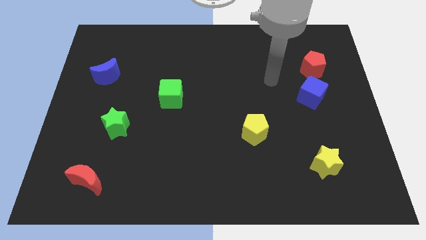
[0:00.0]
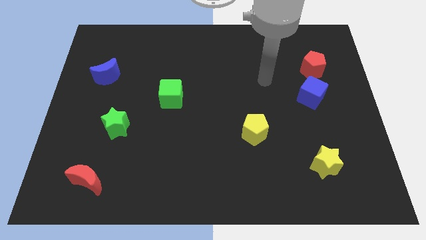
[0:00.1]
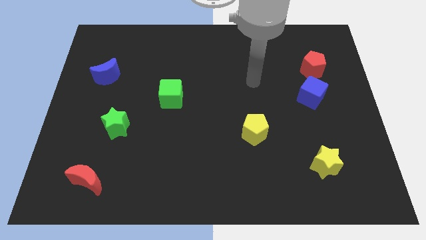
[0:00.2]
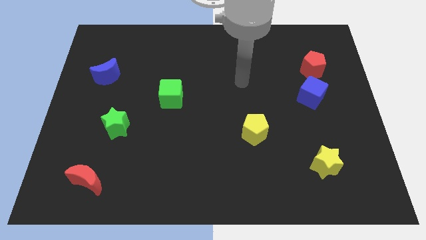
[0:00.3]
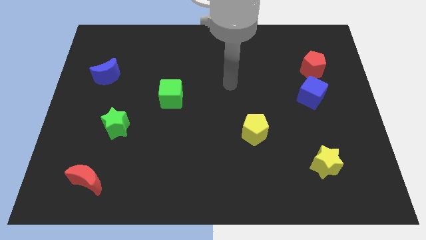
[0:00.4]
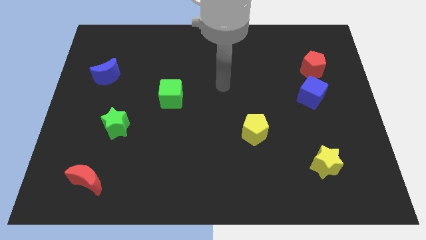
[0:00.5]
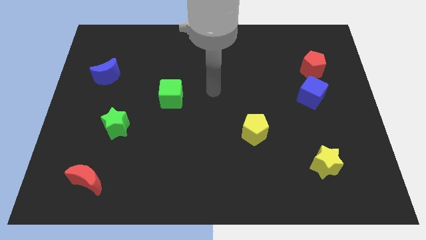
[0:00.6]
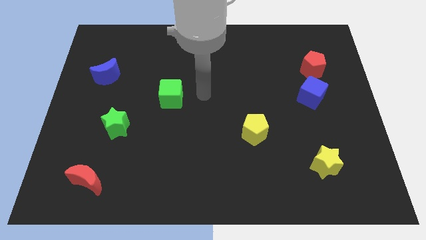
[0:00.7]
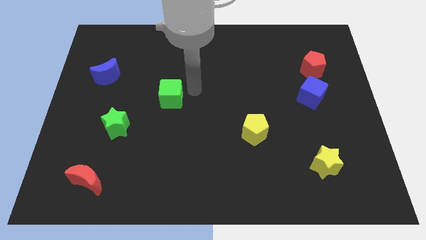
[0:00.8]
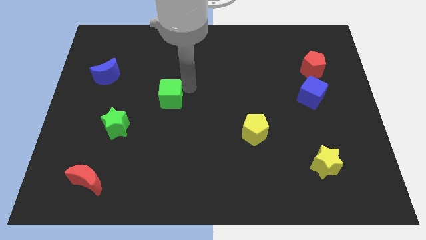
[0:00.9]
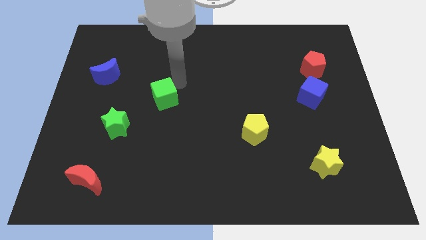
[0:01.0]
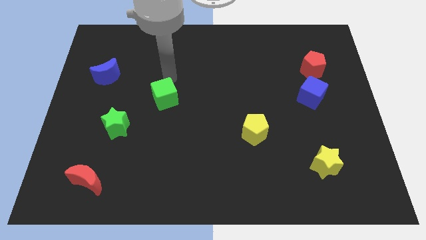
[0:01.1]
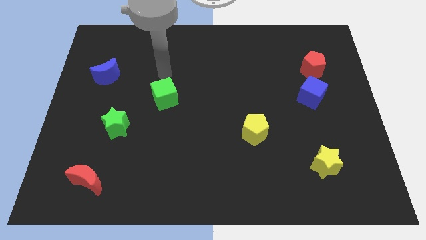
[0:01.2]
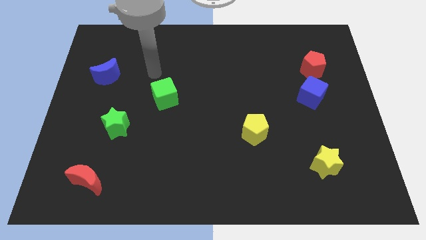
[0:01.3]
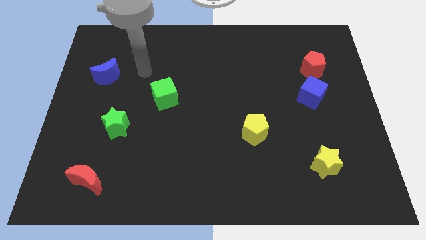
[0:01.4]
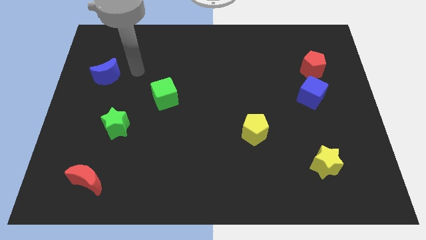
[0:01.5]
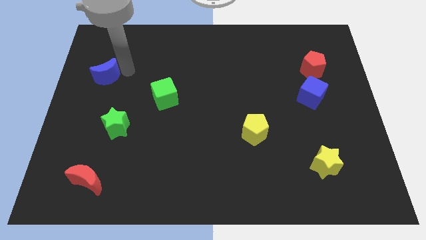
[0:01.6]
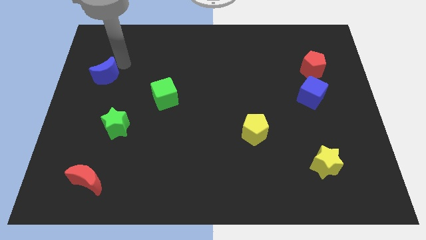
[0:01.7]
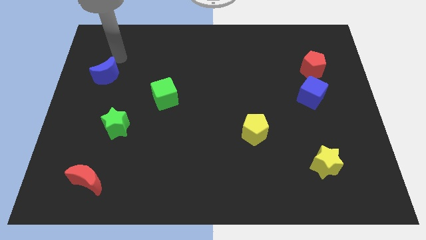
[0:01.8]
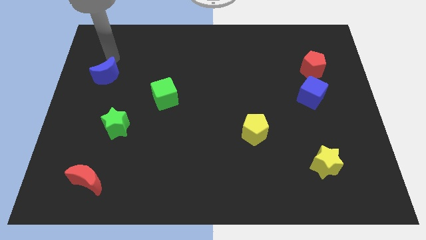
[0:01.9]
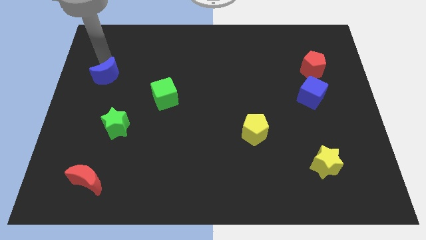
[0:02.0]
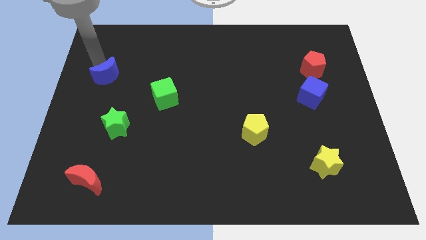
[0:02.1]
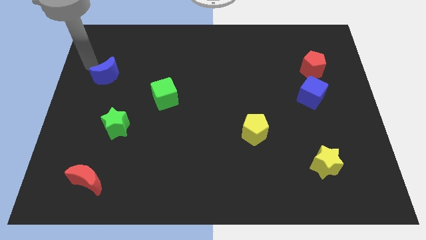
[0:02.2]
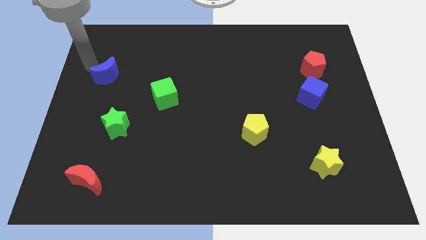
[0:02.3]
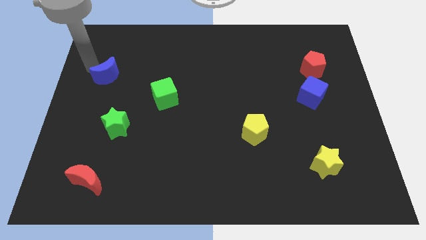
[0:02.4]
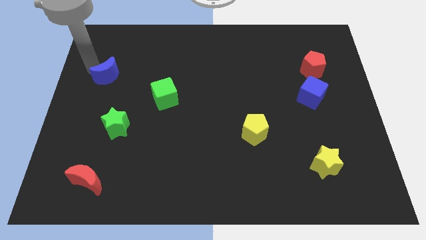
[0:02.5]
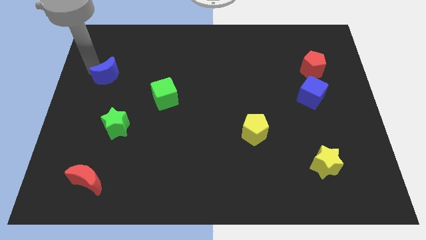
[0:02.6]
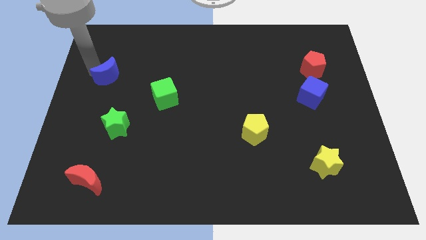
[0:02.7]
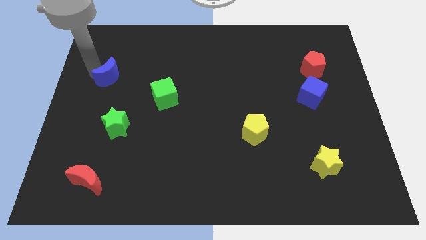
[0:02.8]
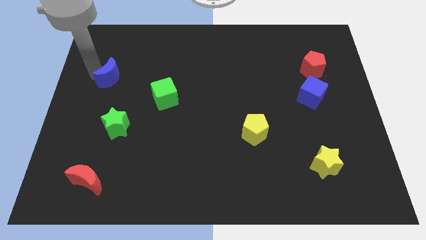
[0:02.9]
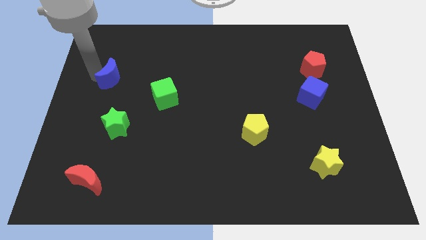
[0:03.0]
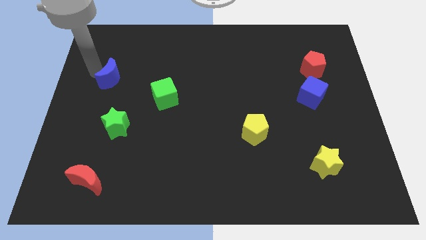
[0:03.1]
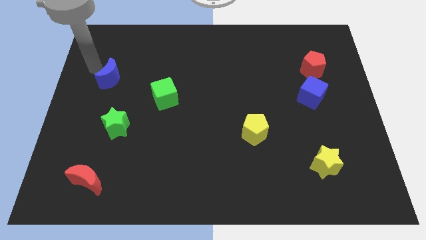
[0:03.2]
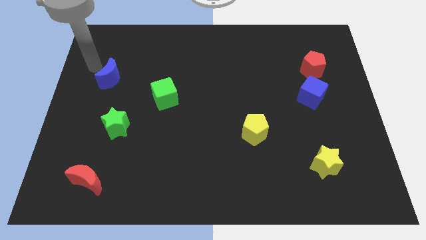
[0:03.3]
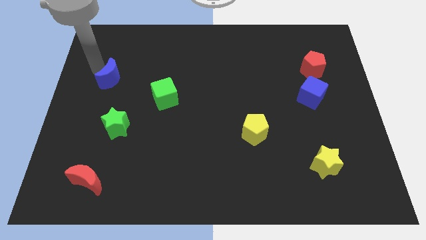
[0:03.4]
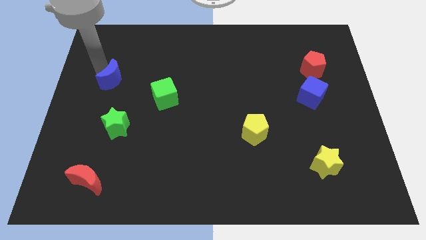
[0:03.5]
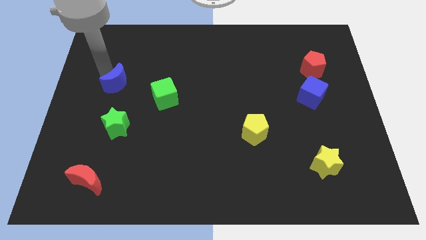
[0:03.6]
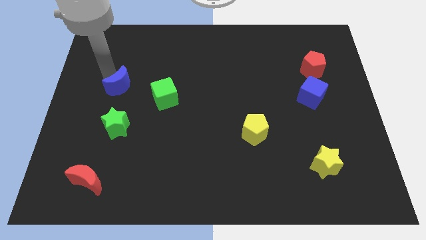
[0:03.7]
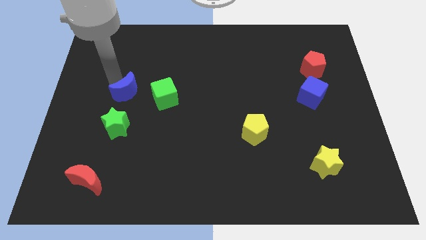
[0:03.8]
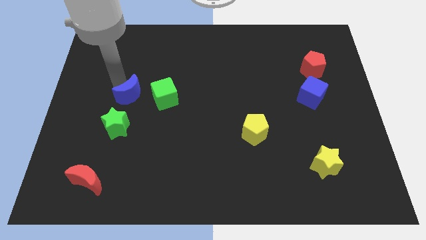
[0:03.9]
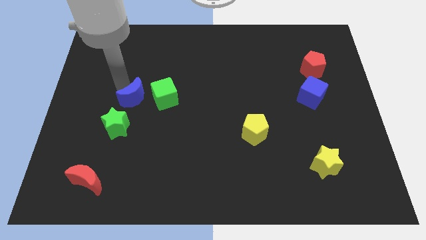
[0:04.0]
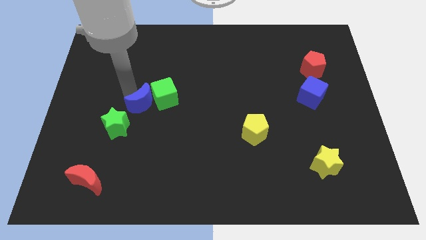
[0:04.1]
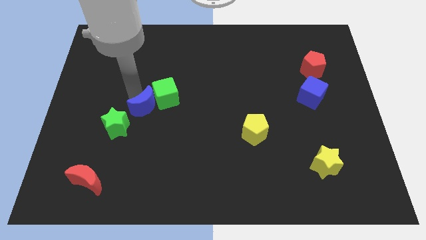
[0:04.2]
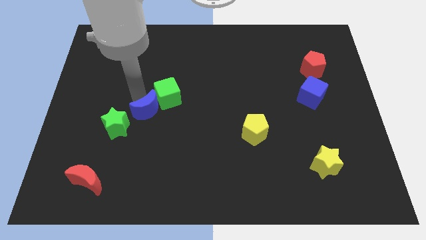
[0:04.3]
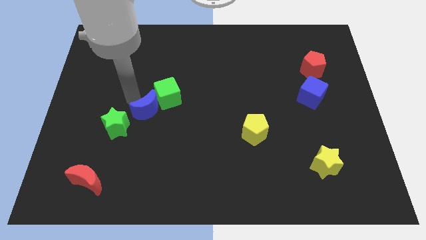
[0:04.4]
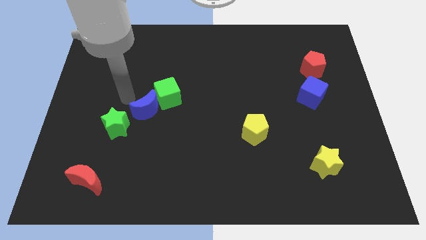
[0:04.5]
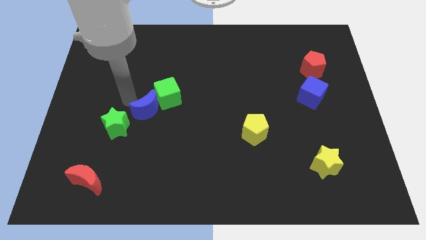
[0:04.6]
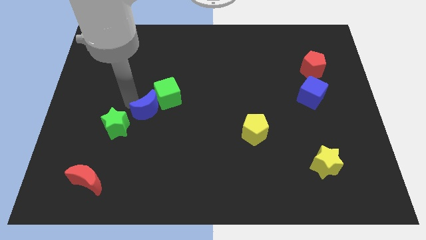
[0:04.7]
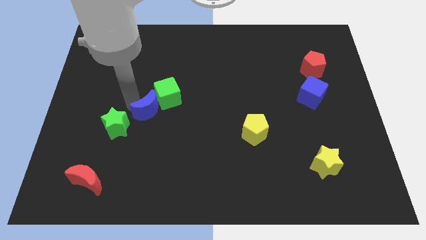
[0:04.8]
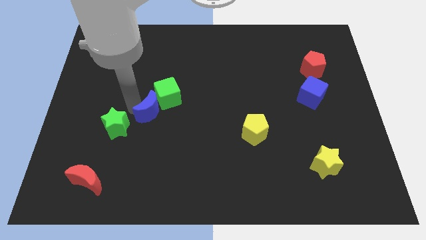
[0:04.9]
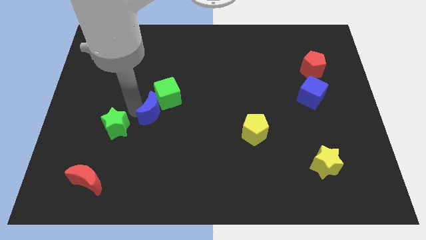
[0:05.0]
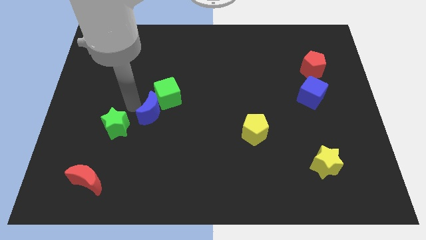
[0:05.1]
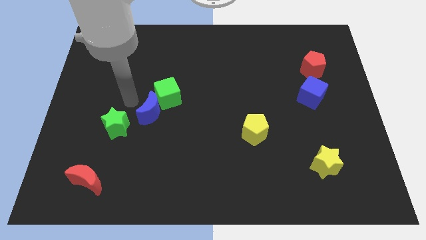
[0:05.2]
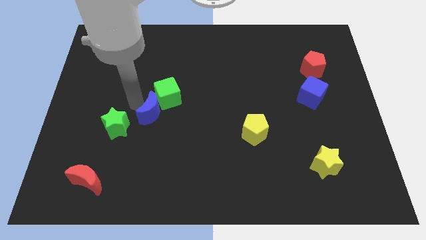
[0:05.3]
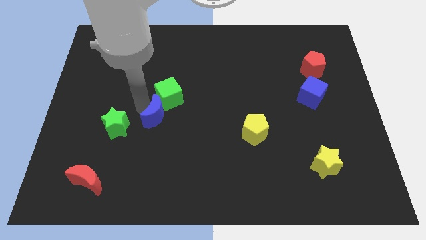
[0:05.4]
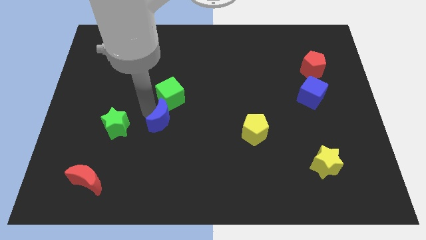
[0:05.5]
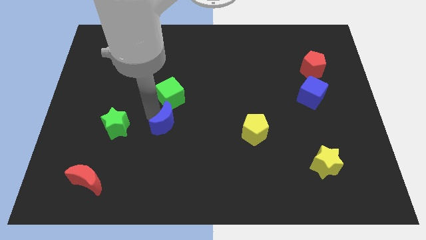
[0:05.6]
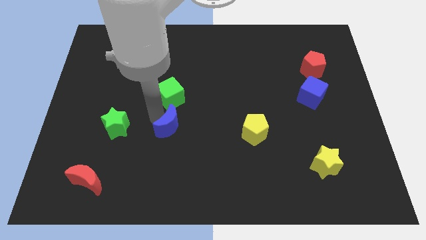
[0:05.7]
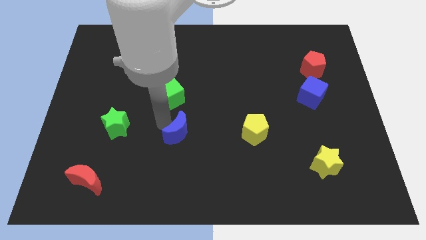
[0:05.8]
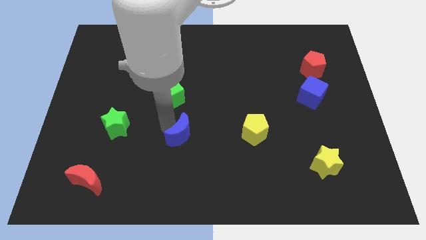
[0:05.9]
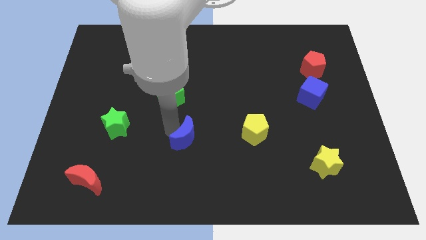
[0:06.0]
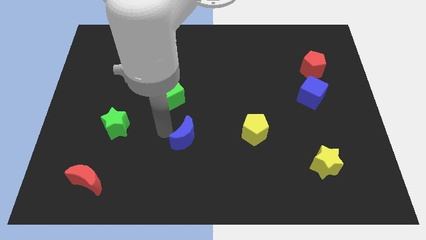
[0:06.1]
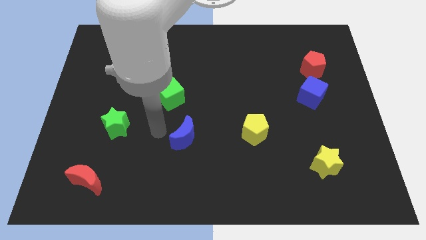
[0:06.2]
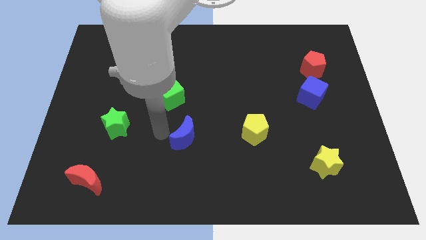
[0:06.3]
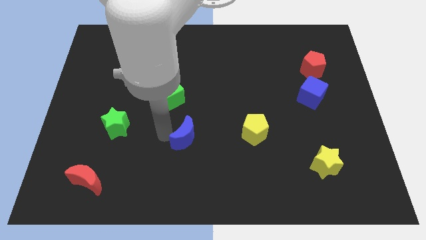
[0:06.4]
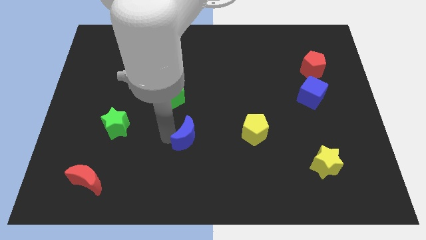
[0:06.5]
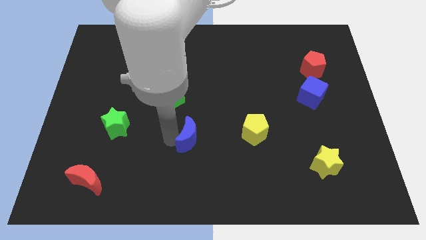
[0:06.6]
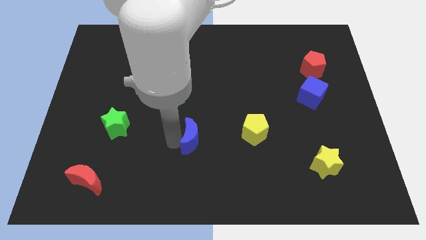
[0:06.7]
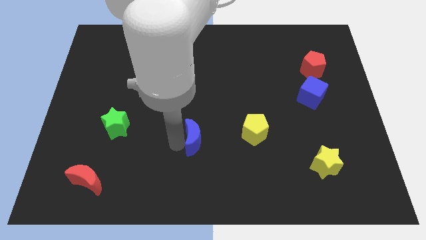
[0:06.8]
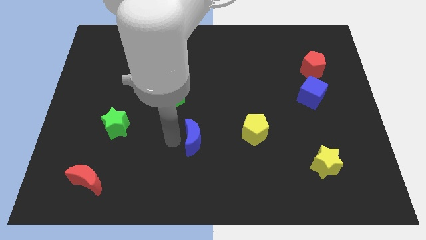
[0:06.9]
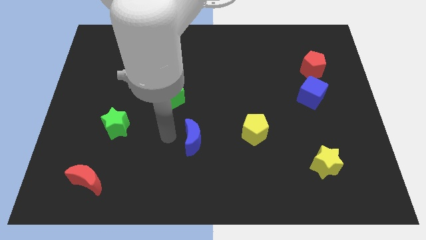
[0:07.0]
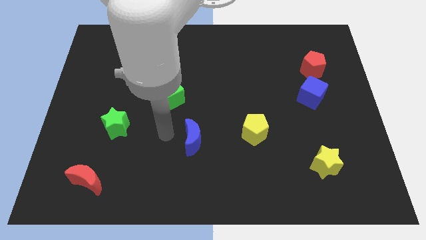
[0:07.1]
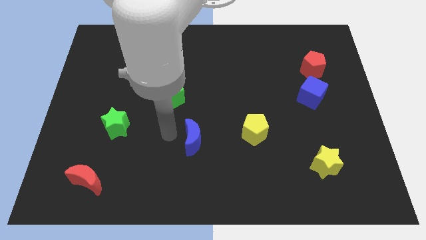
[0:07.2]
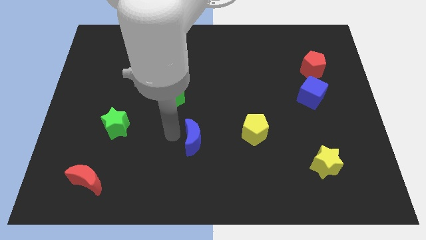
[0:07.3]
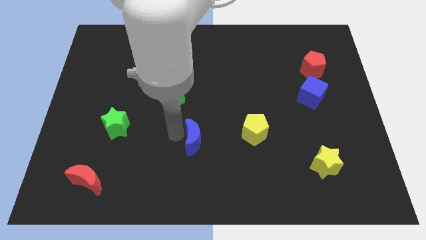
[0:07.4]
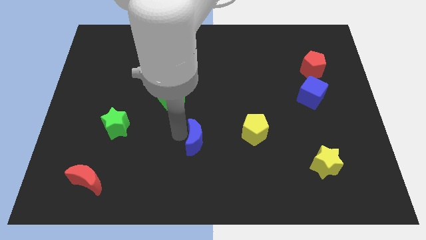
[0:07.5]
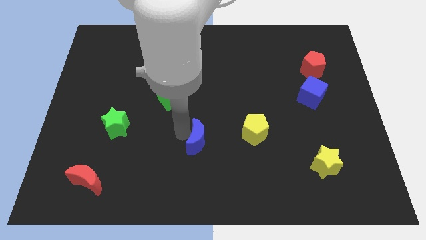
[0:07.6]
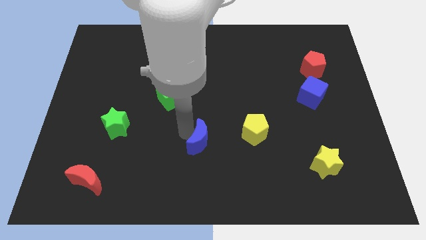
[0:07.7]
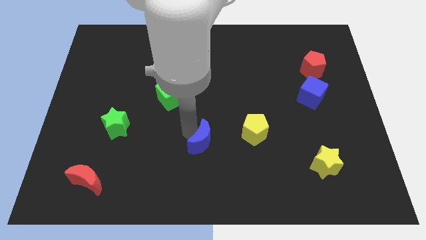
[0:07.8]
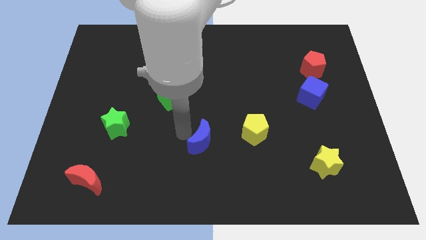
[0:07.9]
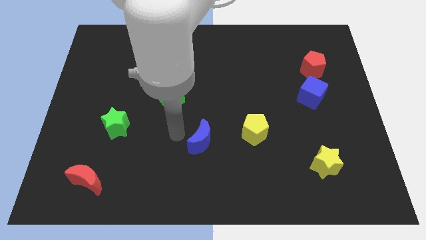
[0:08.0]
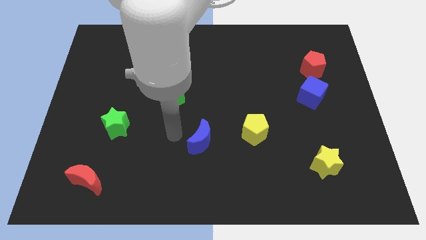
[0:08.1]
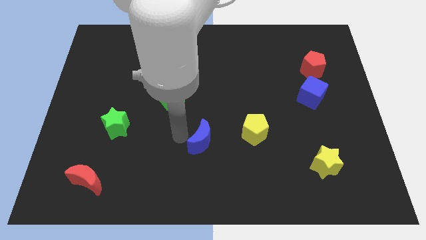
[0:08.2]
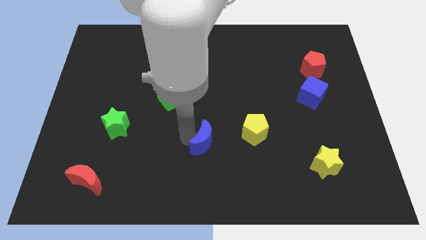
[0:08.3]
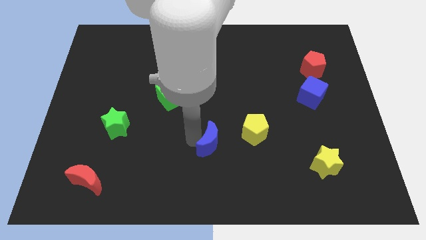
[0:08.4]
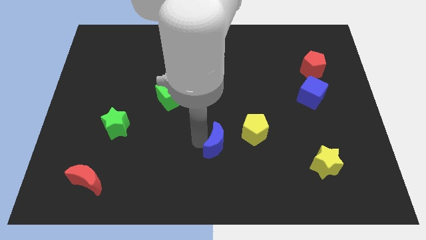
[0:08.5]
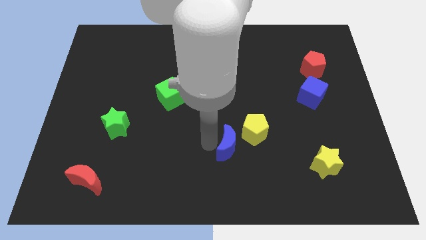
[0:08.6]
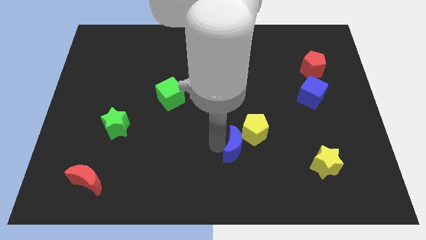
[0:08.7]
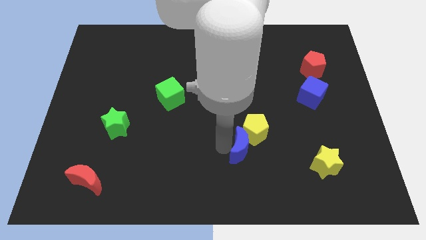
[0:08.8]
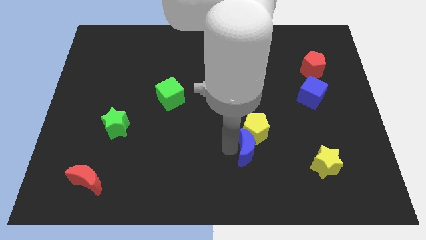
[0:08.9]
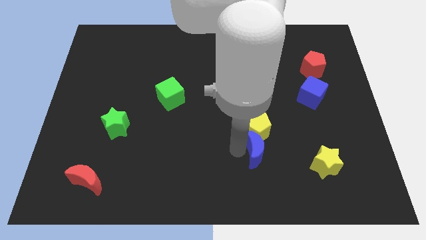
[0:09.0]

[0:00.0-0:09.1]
put the blue moon to the bottom right of the yellow pentagon
